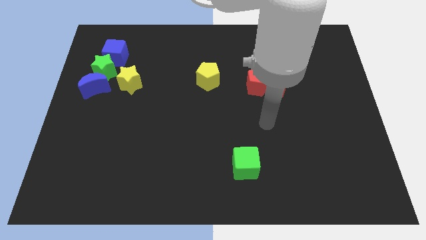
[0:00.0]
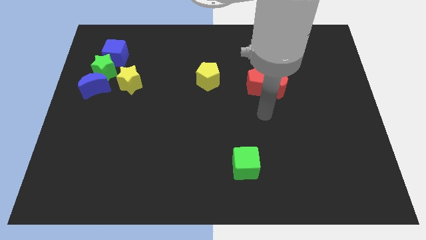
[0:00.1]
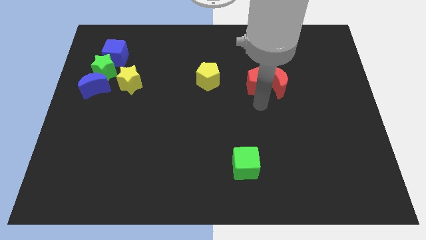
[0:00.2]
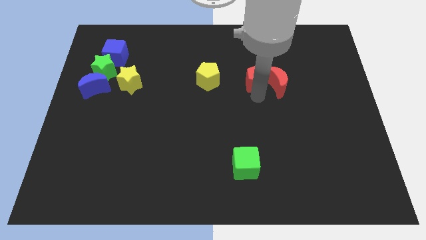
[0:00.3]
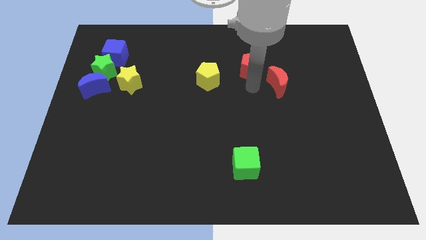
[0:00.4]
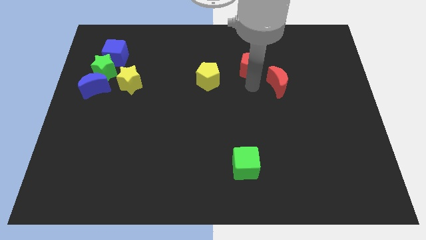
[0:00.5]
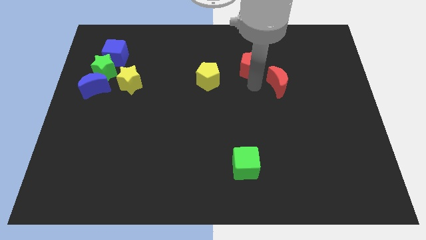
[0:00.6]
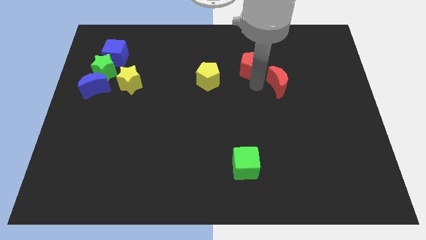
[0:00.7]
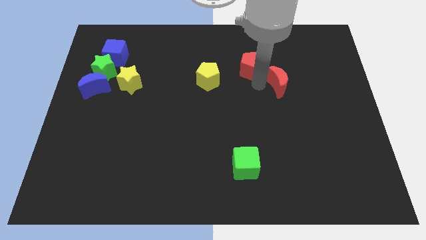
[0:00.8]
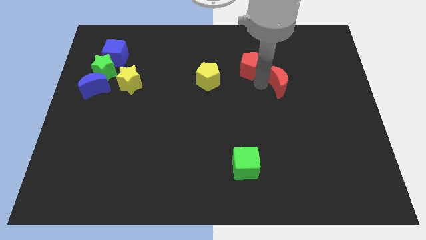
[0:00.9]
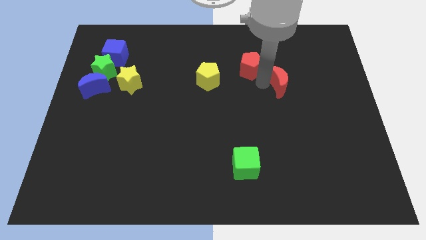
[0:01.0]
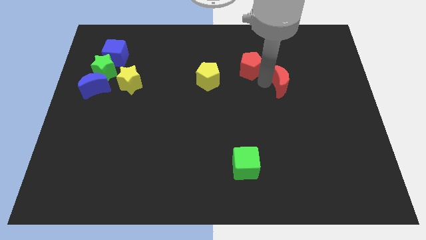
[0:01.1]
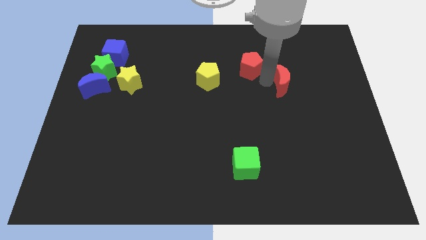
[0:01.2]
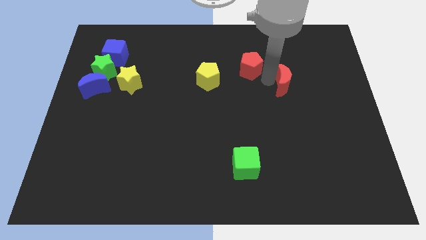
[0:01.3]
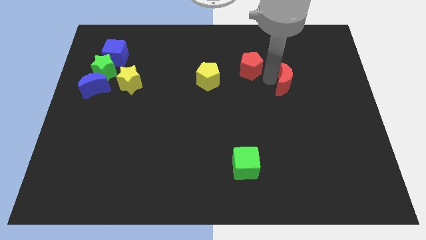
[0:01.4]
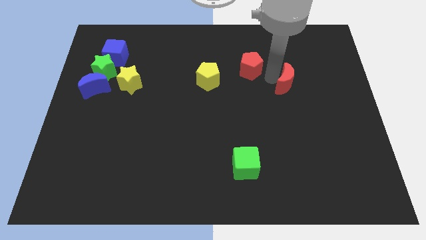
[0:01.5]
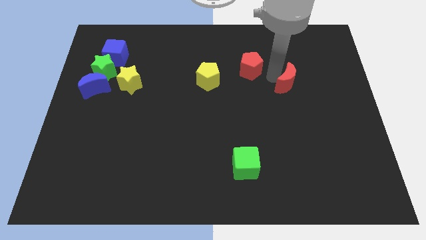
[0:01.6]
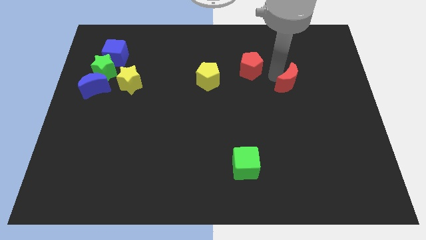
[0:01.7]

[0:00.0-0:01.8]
separate the red moon from the red pentagon

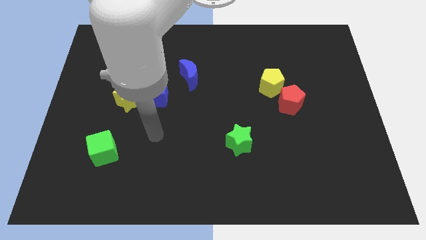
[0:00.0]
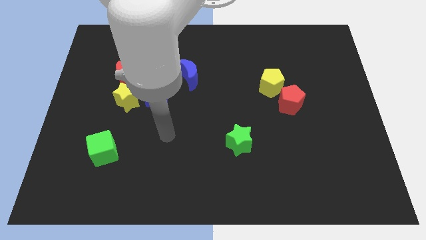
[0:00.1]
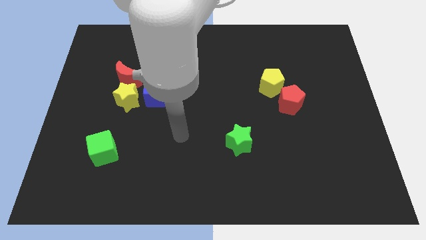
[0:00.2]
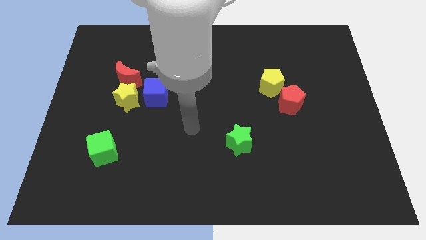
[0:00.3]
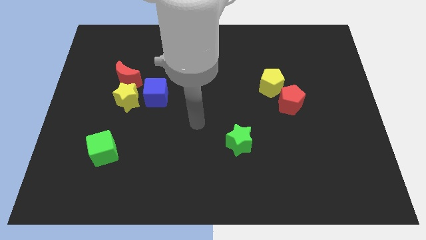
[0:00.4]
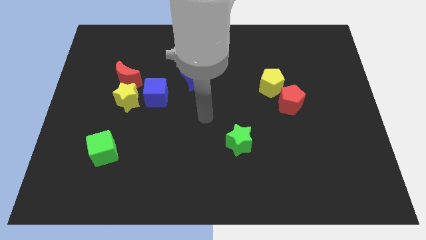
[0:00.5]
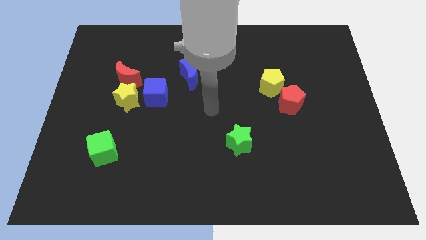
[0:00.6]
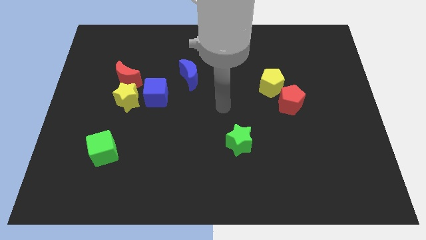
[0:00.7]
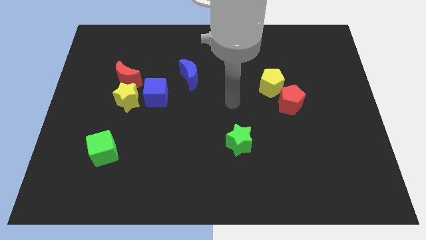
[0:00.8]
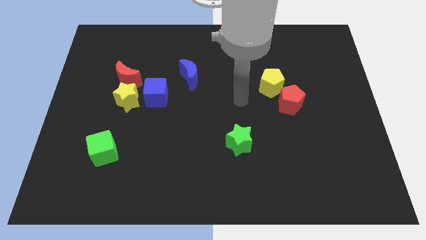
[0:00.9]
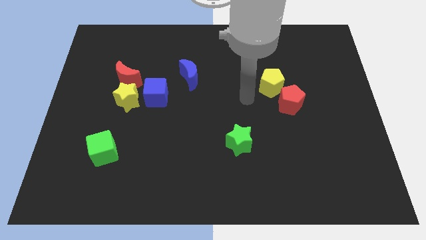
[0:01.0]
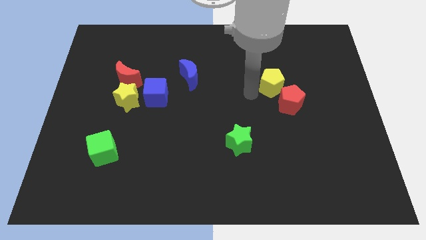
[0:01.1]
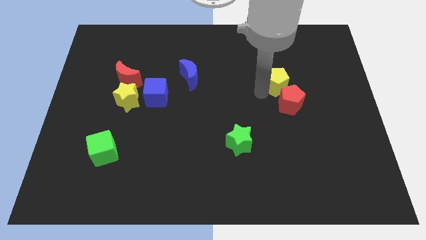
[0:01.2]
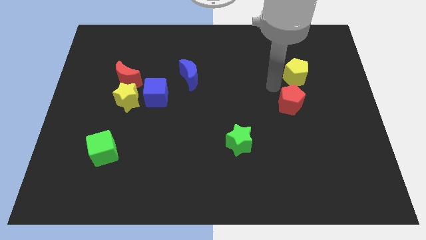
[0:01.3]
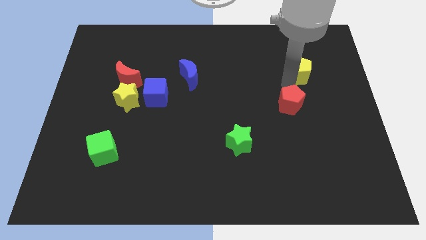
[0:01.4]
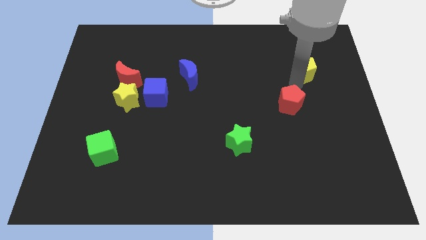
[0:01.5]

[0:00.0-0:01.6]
move the red pentagon away from the yellow pentagon

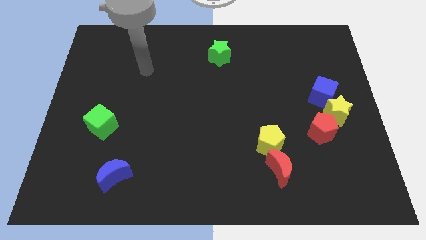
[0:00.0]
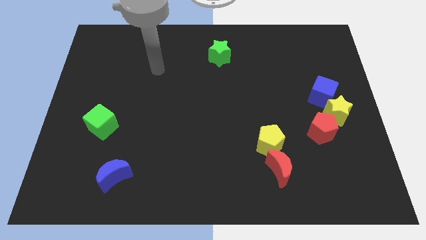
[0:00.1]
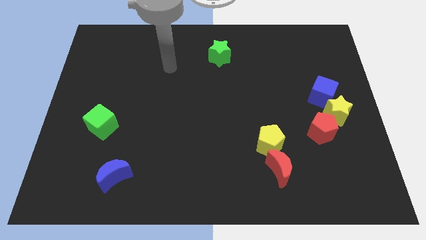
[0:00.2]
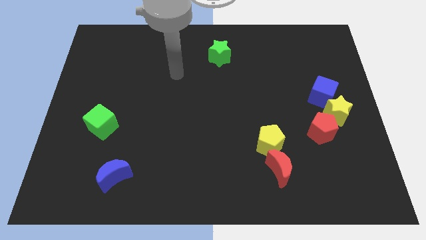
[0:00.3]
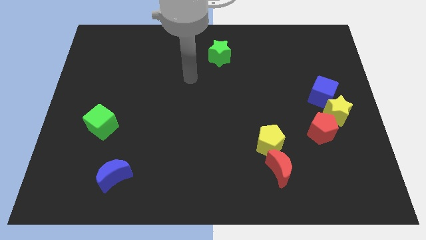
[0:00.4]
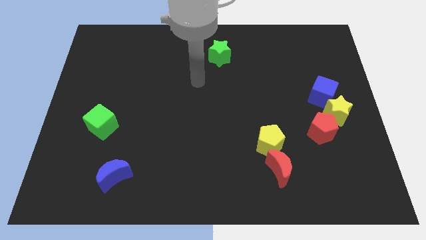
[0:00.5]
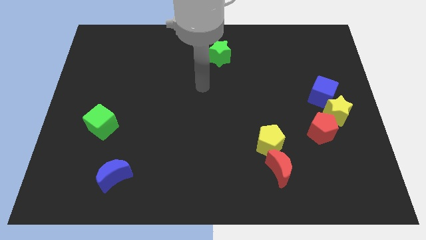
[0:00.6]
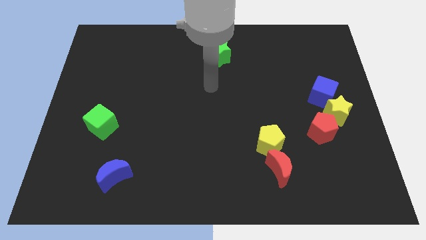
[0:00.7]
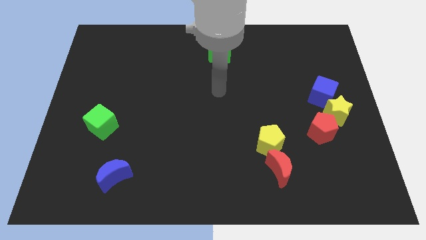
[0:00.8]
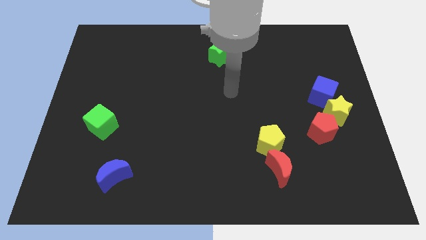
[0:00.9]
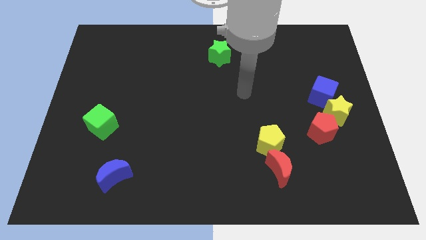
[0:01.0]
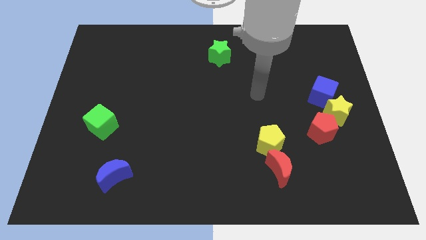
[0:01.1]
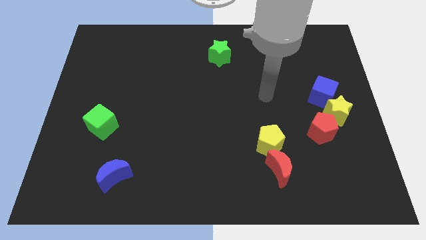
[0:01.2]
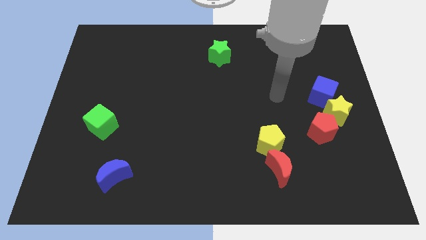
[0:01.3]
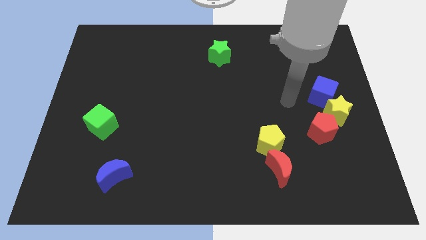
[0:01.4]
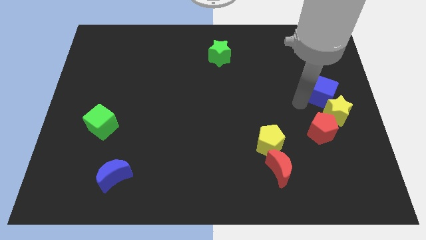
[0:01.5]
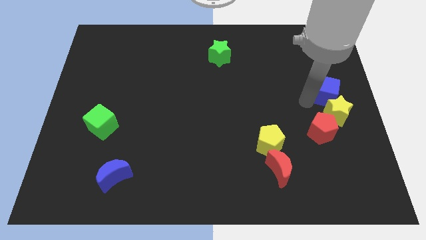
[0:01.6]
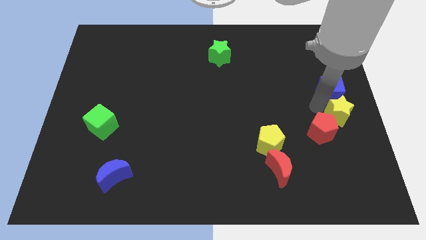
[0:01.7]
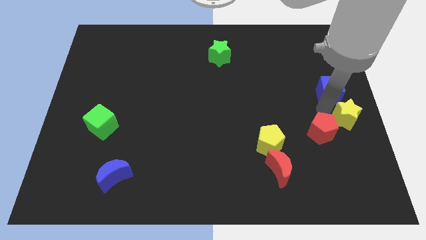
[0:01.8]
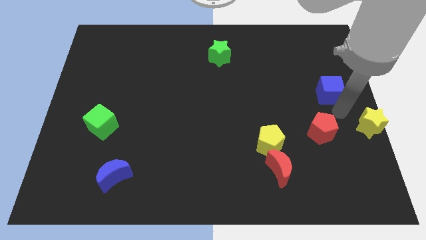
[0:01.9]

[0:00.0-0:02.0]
pull the blue cube apart from the yellow star

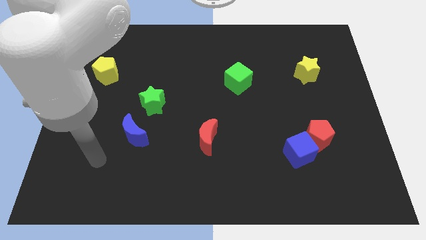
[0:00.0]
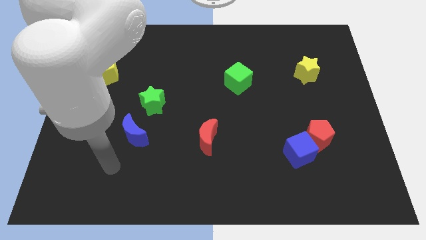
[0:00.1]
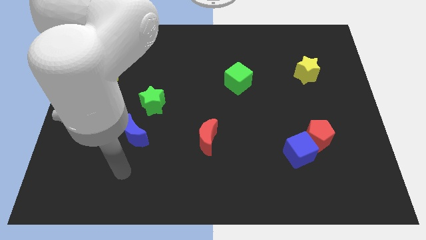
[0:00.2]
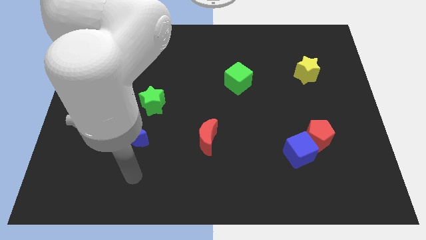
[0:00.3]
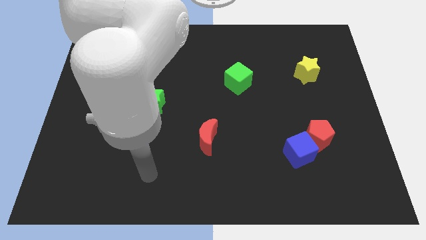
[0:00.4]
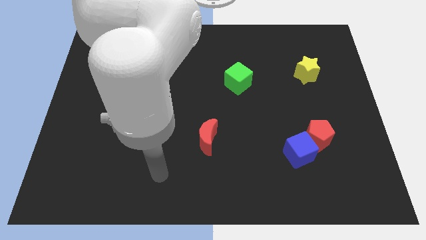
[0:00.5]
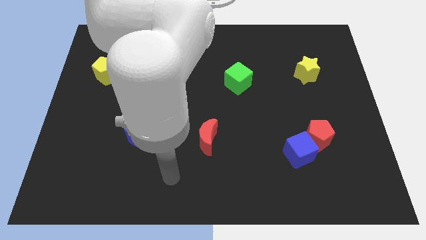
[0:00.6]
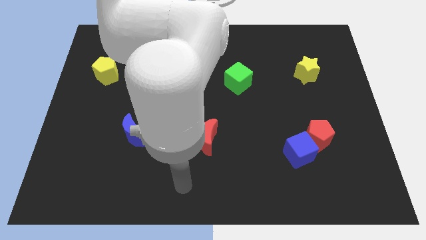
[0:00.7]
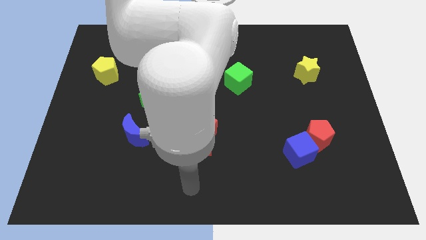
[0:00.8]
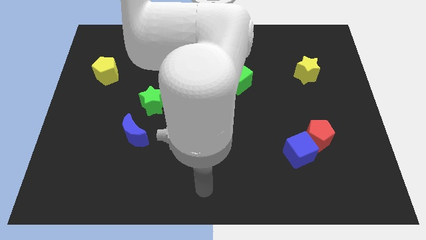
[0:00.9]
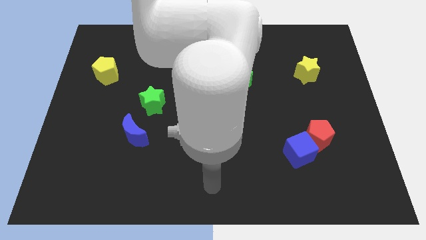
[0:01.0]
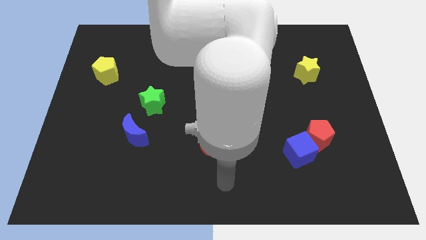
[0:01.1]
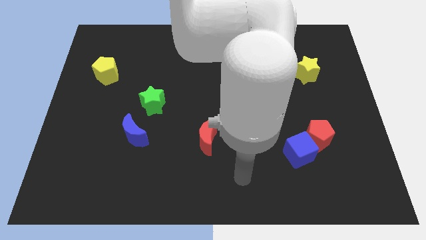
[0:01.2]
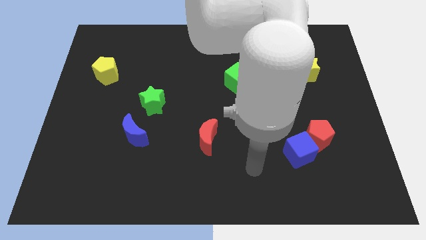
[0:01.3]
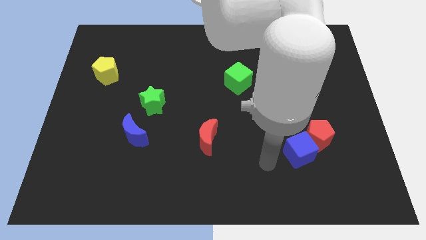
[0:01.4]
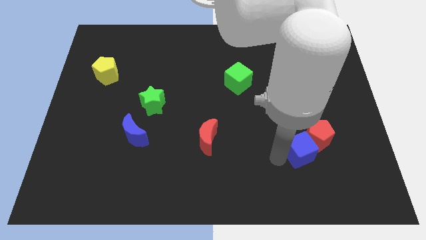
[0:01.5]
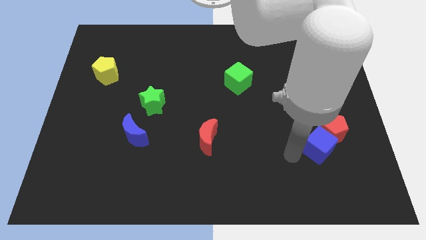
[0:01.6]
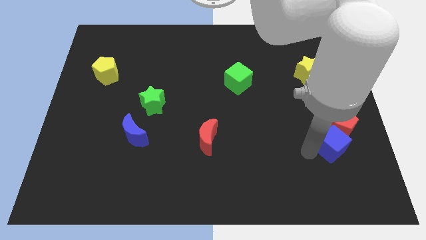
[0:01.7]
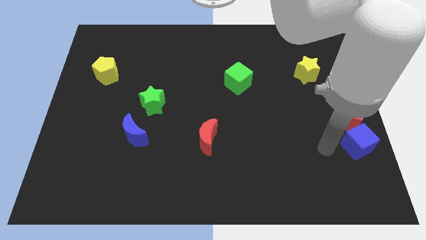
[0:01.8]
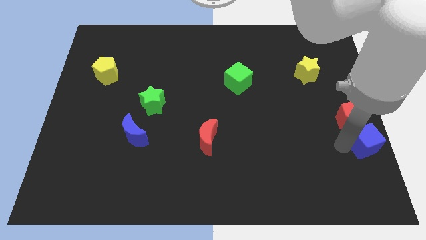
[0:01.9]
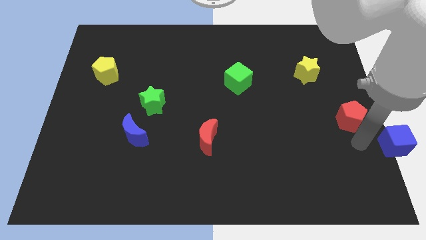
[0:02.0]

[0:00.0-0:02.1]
separate the red pentagon from the blue cube

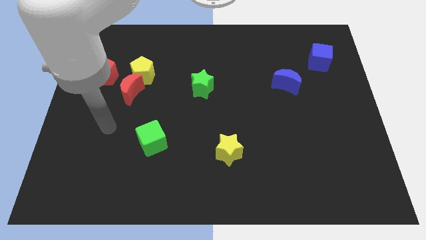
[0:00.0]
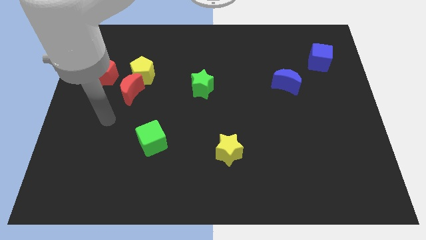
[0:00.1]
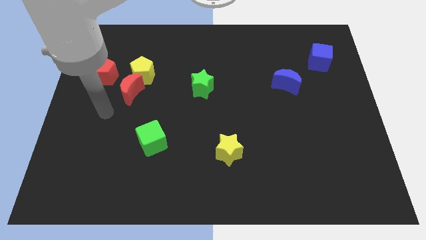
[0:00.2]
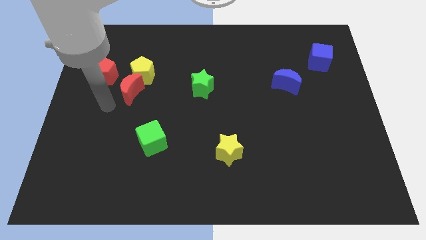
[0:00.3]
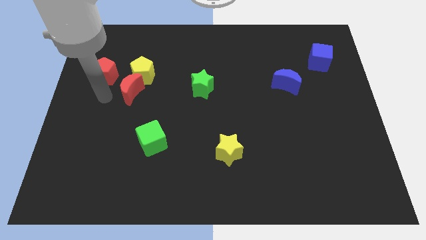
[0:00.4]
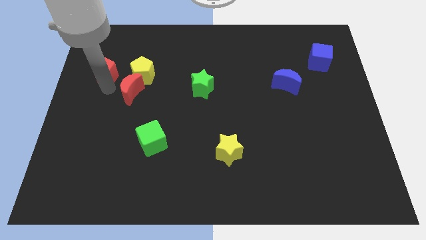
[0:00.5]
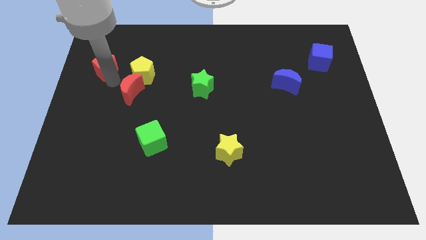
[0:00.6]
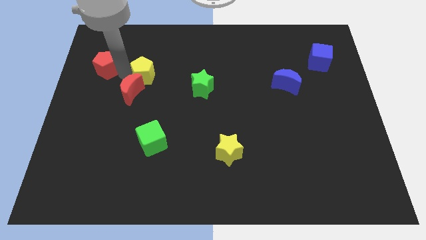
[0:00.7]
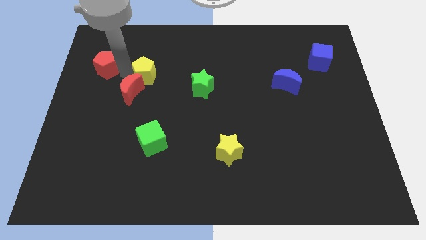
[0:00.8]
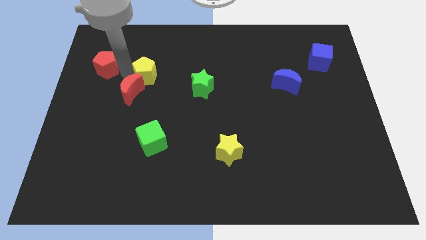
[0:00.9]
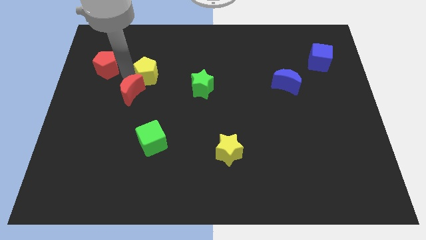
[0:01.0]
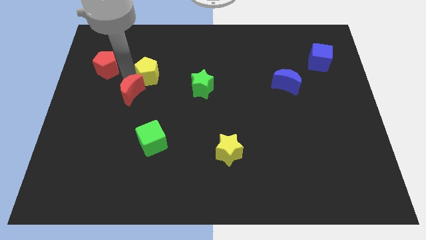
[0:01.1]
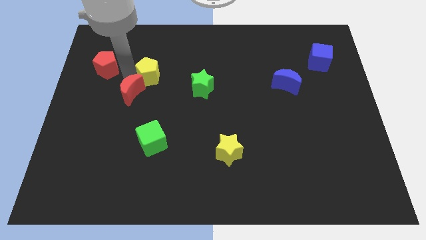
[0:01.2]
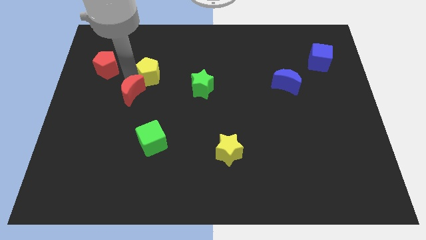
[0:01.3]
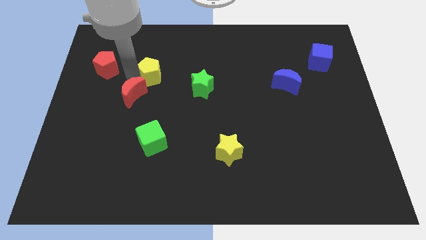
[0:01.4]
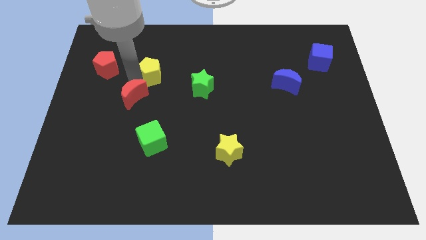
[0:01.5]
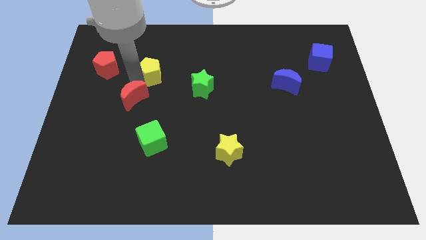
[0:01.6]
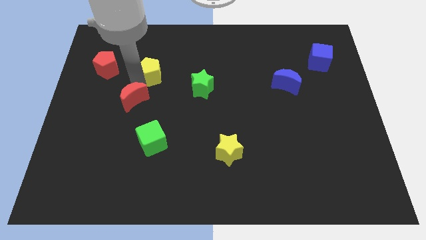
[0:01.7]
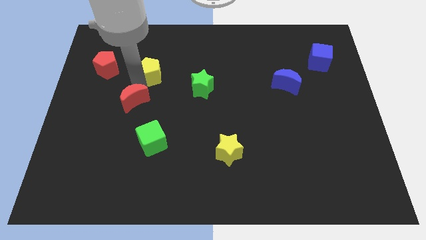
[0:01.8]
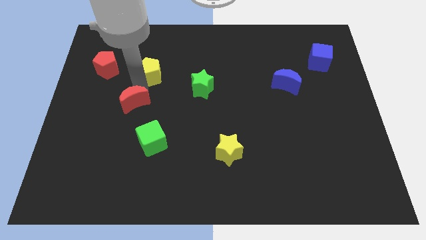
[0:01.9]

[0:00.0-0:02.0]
separate the red moon from the yellow pentagon and red pentagon
